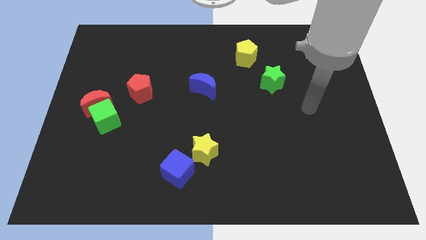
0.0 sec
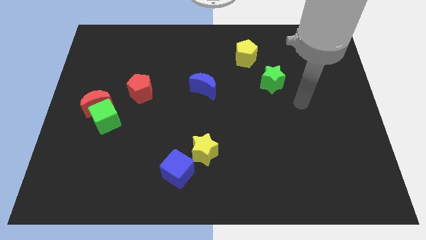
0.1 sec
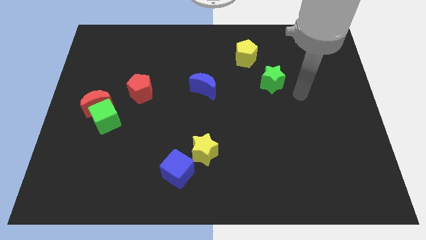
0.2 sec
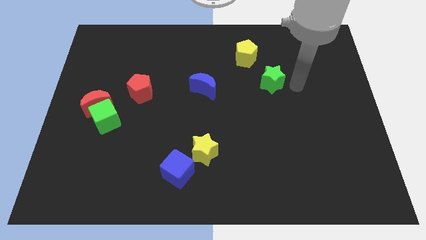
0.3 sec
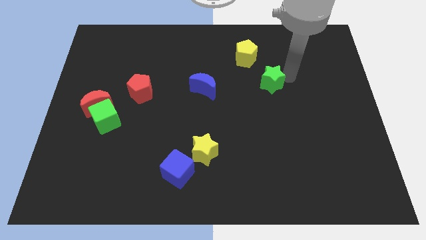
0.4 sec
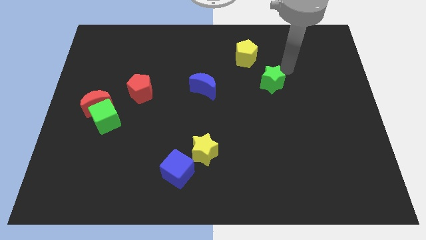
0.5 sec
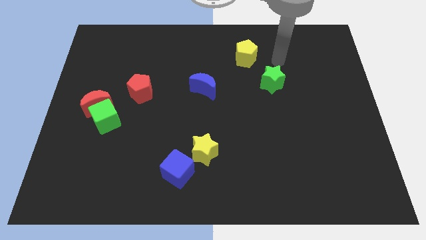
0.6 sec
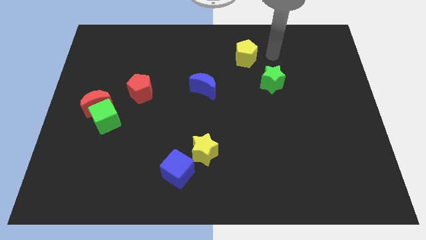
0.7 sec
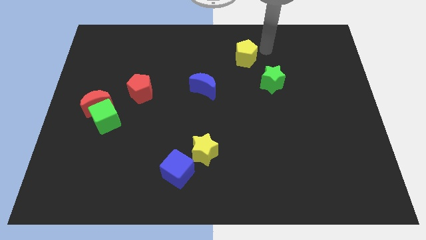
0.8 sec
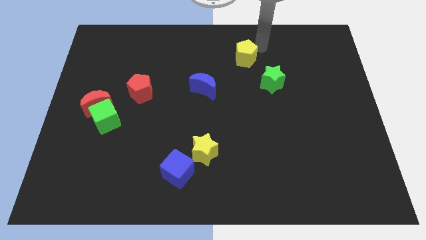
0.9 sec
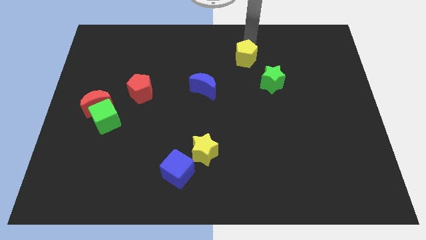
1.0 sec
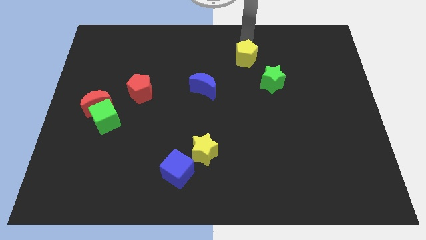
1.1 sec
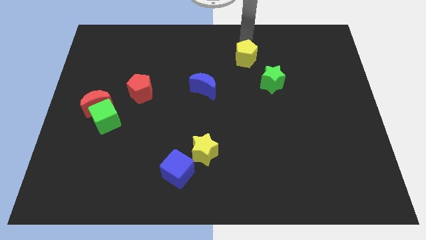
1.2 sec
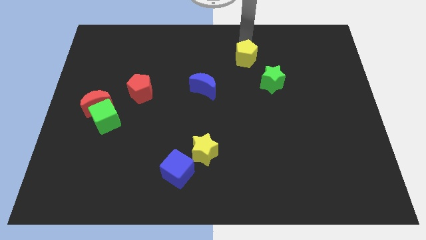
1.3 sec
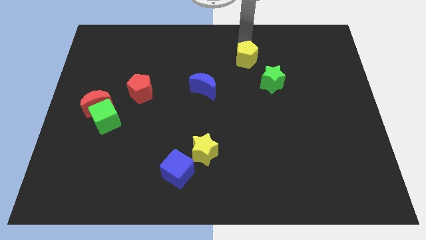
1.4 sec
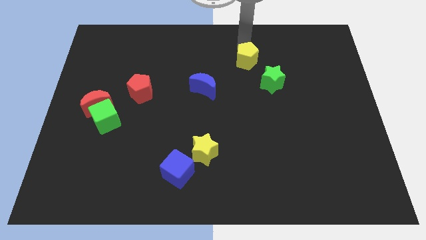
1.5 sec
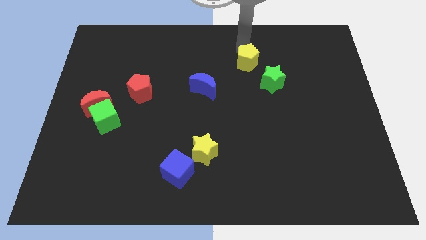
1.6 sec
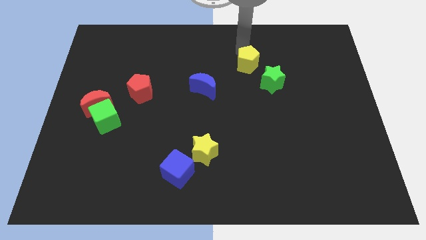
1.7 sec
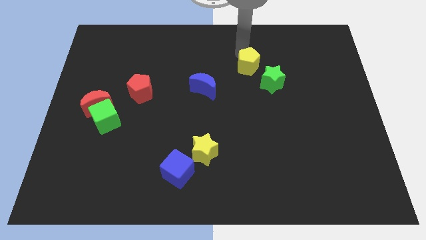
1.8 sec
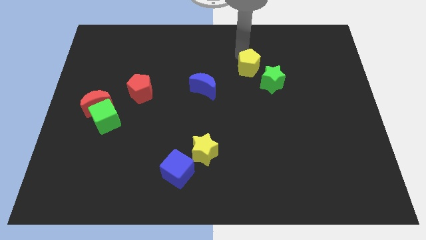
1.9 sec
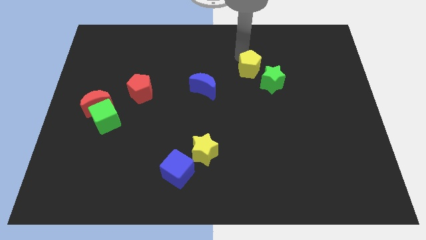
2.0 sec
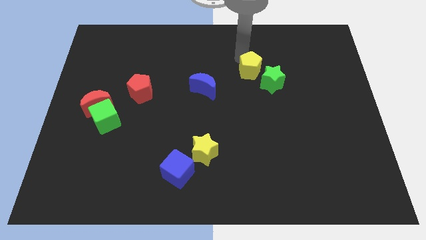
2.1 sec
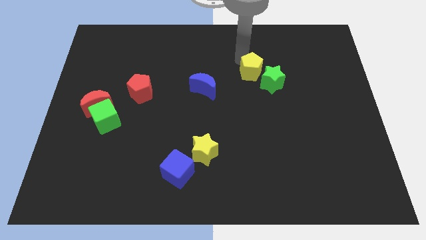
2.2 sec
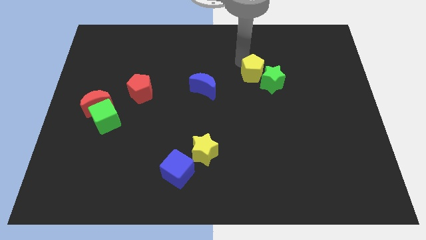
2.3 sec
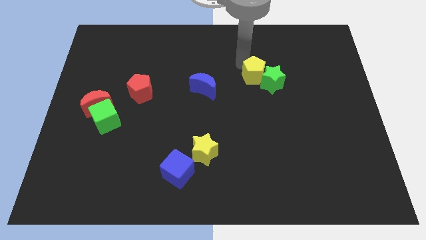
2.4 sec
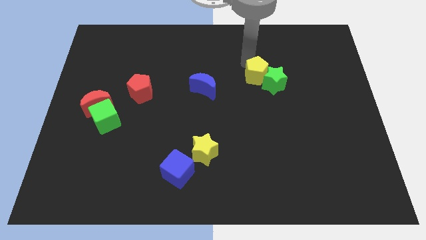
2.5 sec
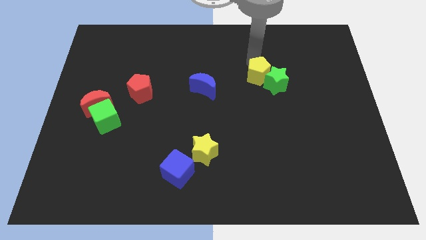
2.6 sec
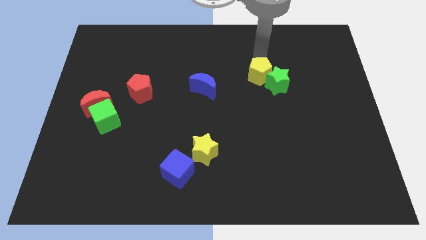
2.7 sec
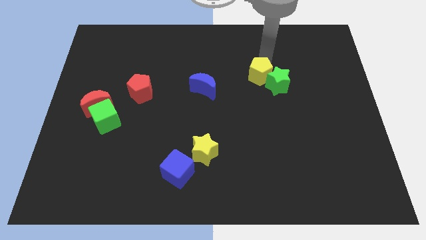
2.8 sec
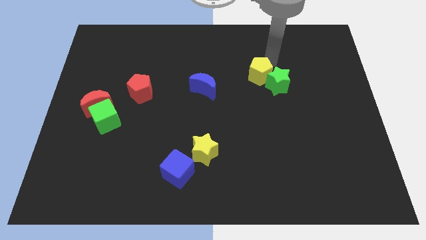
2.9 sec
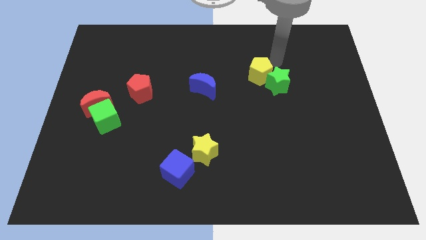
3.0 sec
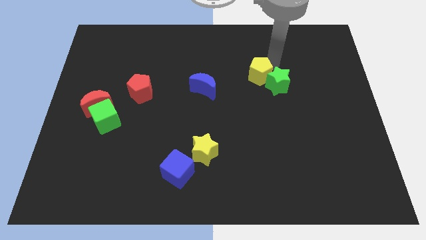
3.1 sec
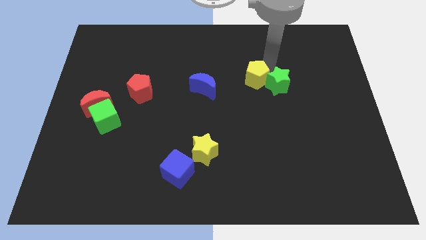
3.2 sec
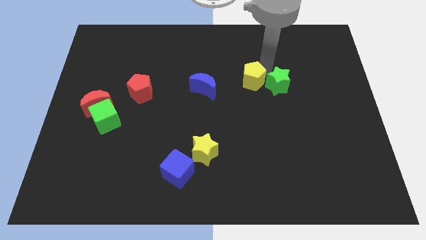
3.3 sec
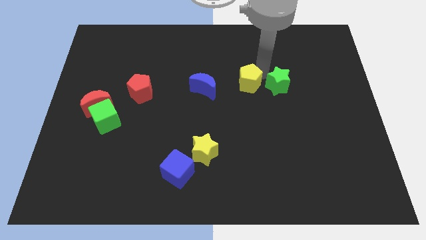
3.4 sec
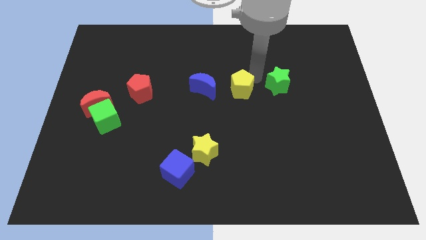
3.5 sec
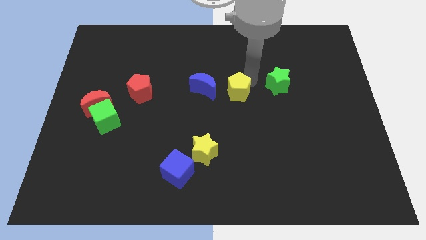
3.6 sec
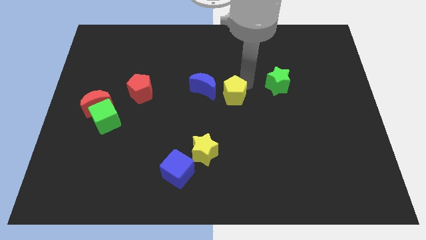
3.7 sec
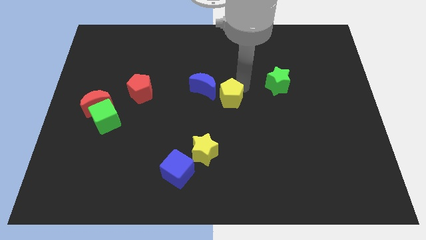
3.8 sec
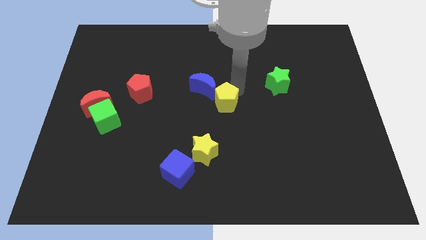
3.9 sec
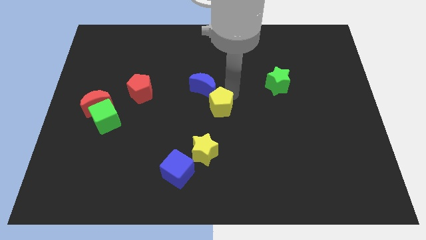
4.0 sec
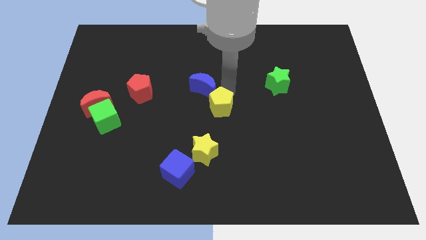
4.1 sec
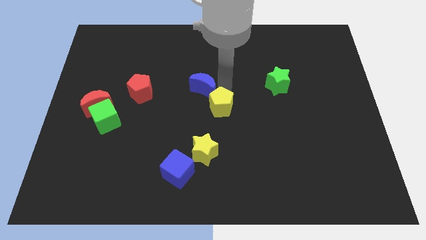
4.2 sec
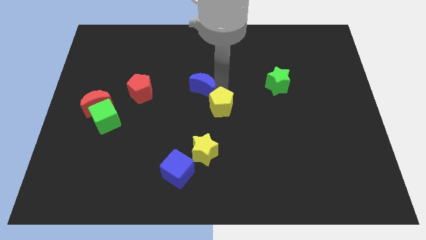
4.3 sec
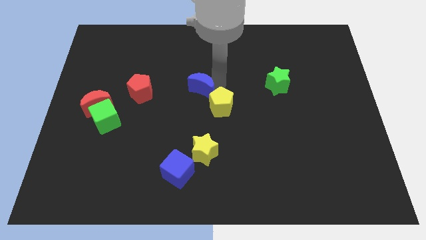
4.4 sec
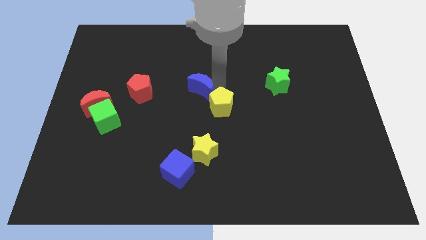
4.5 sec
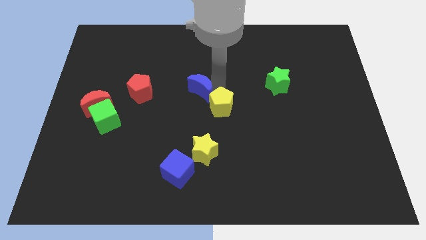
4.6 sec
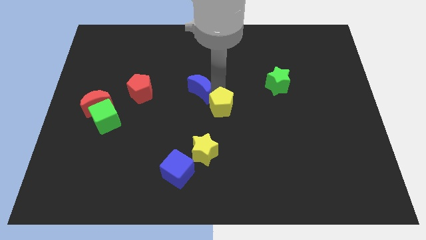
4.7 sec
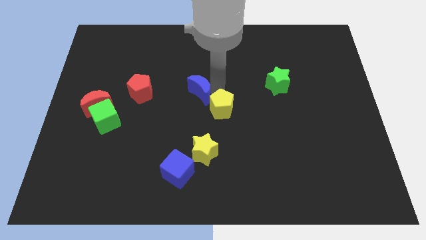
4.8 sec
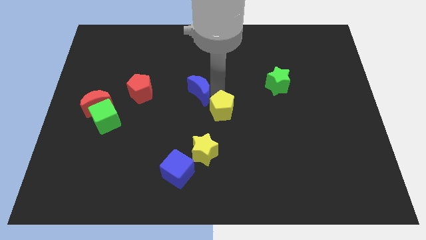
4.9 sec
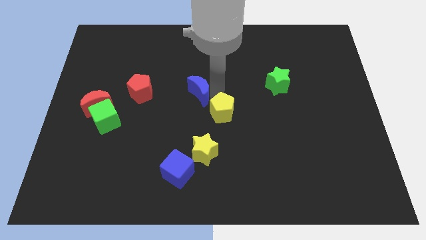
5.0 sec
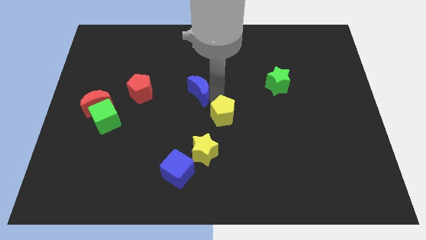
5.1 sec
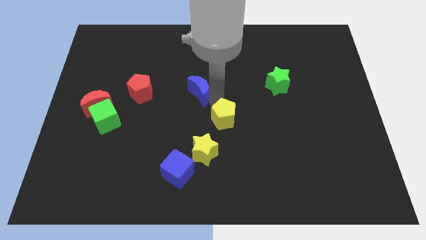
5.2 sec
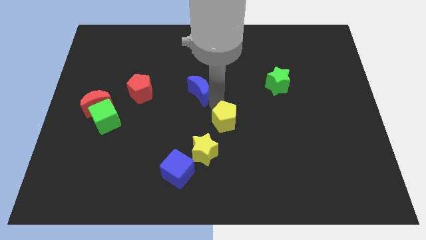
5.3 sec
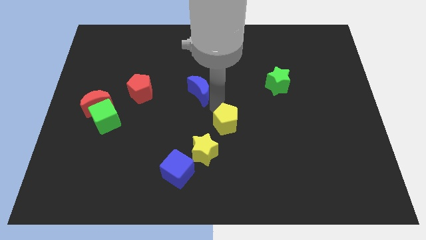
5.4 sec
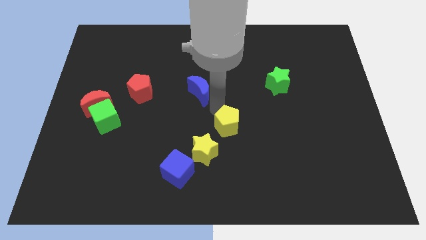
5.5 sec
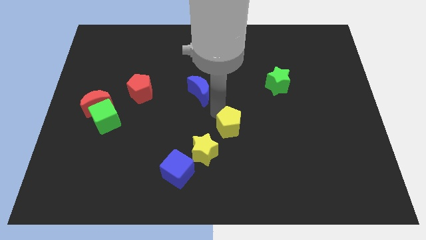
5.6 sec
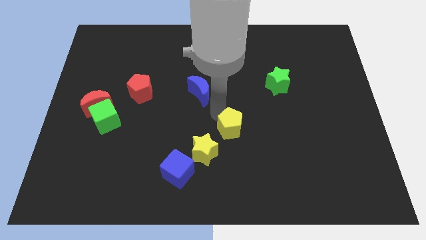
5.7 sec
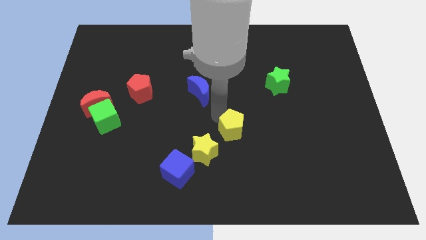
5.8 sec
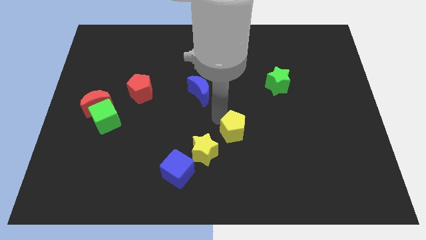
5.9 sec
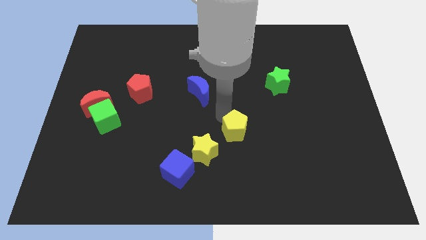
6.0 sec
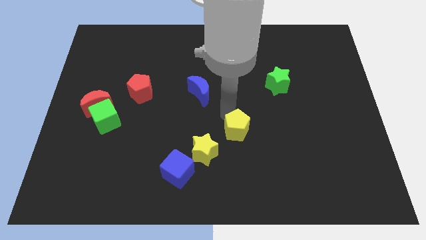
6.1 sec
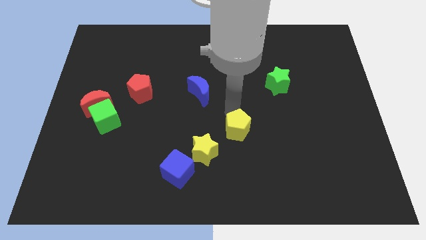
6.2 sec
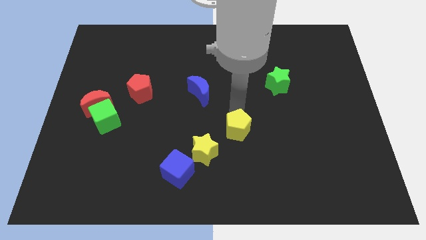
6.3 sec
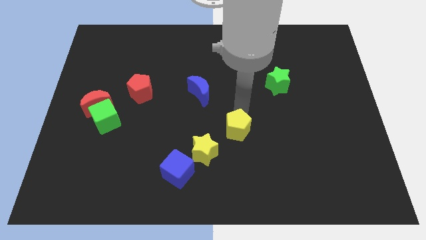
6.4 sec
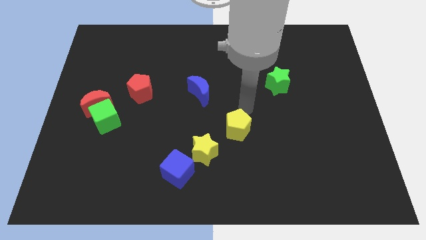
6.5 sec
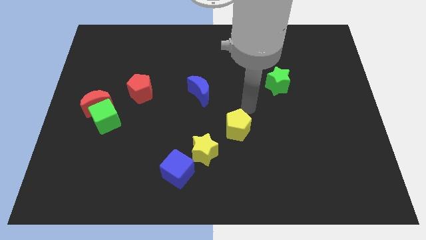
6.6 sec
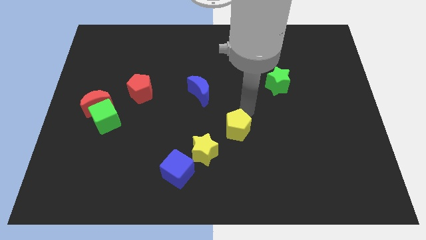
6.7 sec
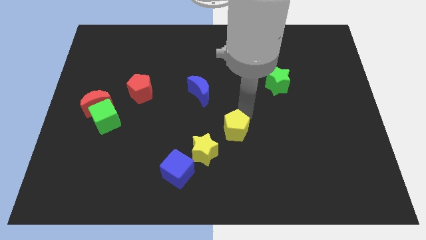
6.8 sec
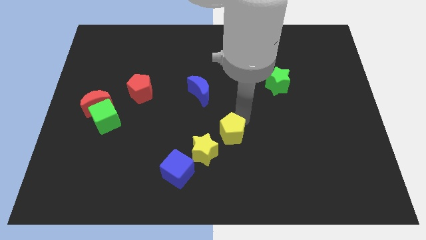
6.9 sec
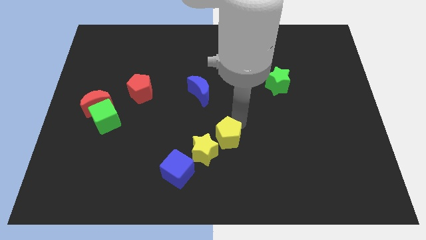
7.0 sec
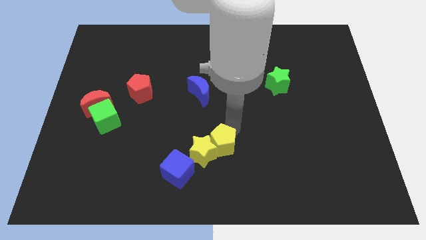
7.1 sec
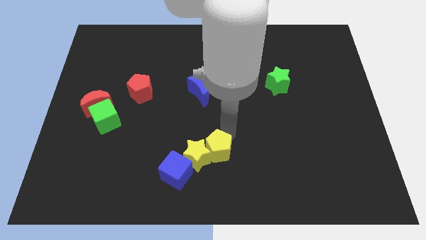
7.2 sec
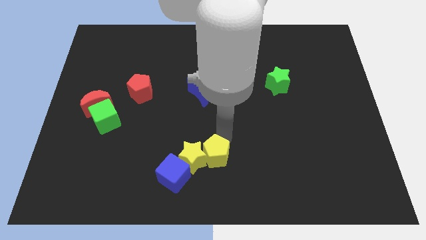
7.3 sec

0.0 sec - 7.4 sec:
push the yellow pentagon to the bottom side
